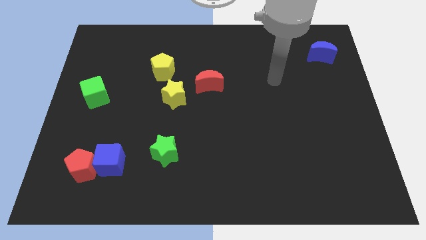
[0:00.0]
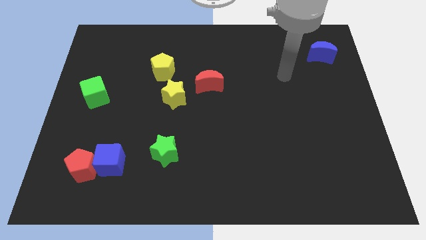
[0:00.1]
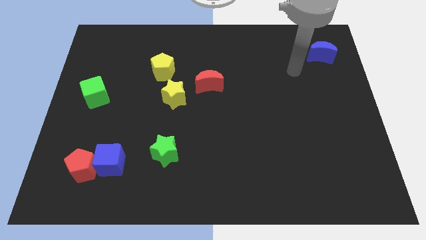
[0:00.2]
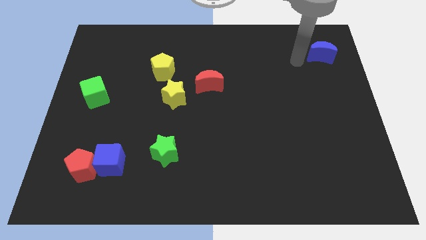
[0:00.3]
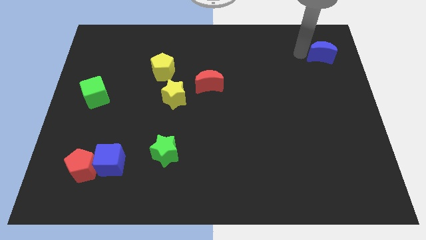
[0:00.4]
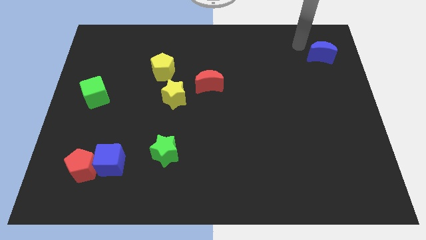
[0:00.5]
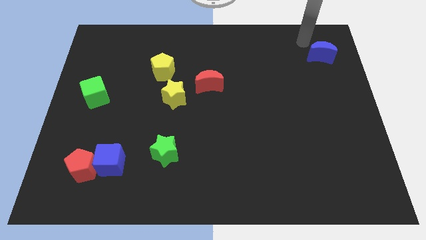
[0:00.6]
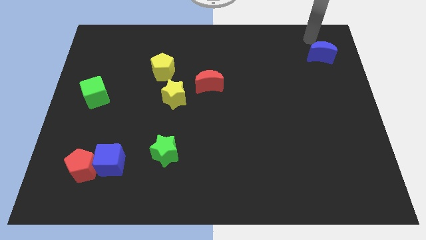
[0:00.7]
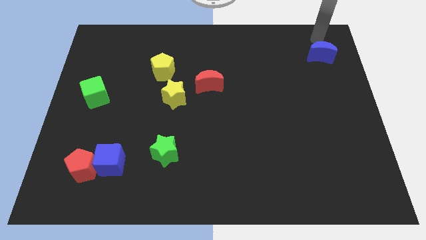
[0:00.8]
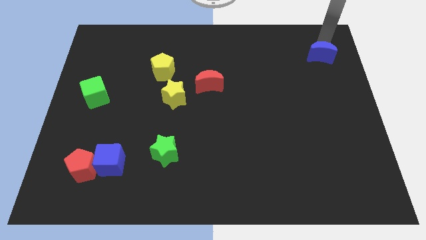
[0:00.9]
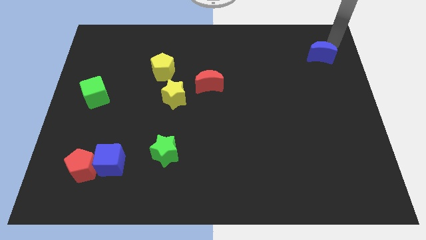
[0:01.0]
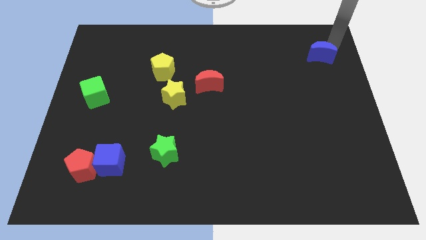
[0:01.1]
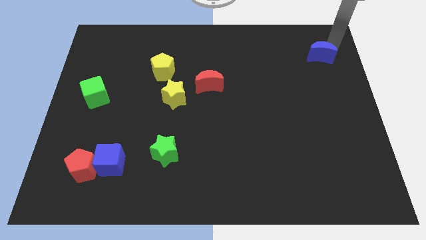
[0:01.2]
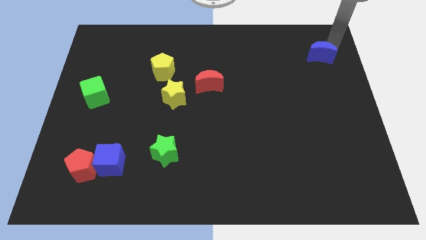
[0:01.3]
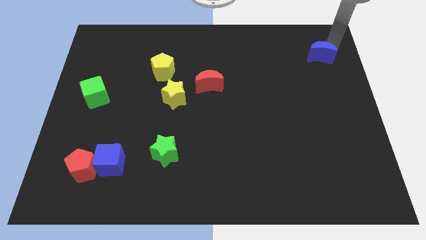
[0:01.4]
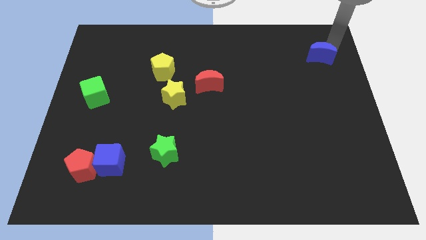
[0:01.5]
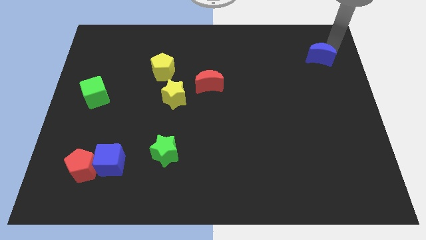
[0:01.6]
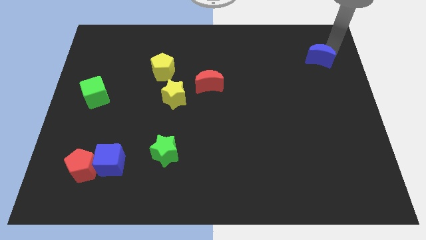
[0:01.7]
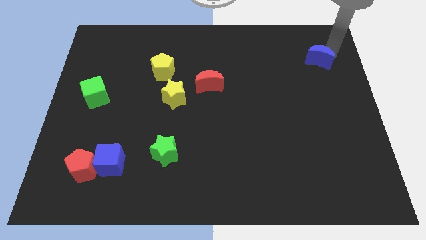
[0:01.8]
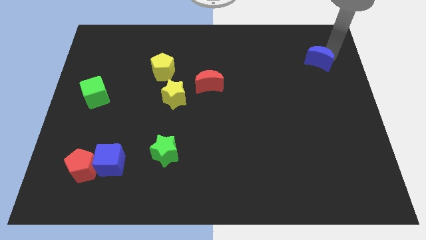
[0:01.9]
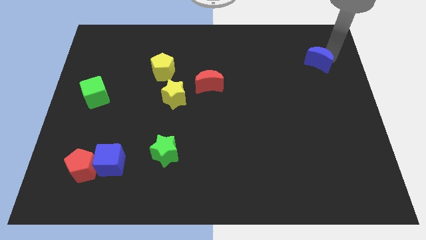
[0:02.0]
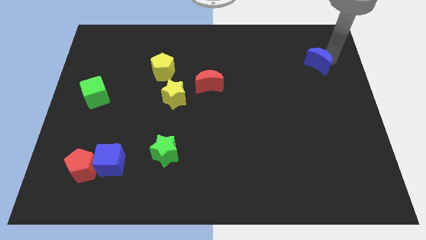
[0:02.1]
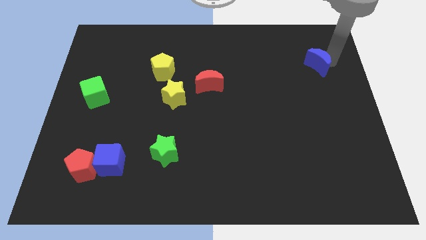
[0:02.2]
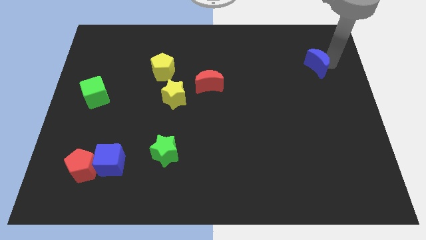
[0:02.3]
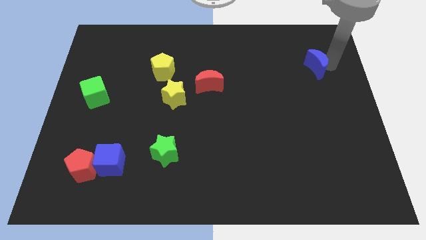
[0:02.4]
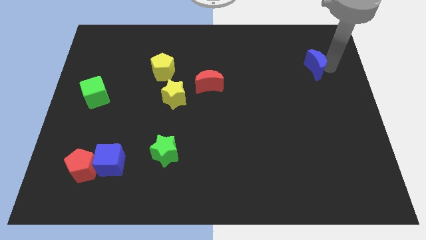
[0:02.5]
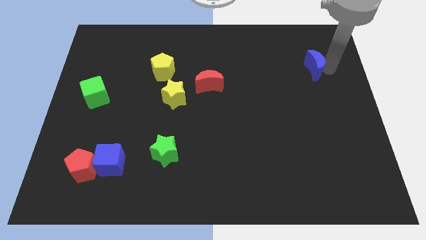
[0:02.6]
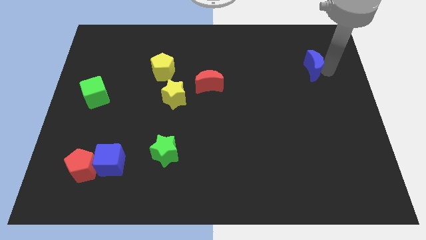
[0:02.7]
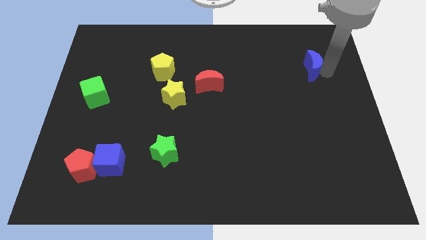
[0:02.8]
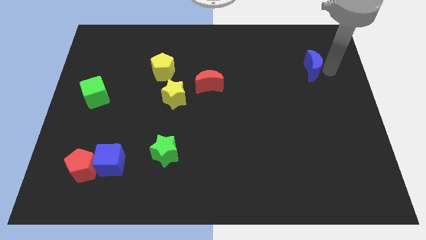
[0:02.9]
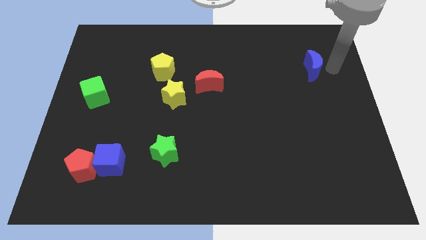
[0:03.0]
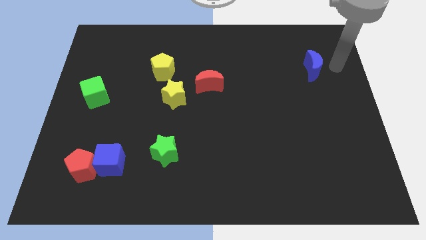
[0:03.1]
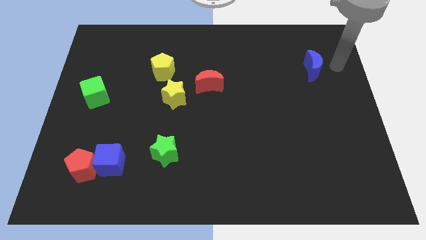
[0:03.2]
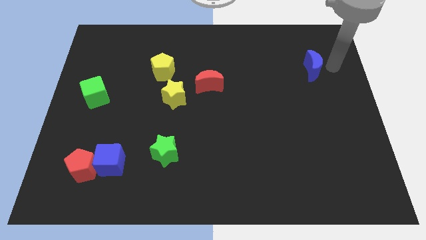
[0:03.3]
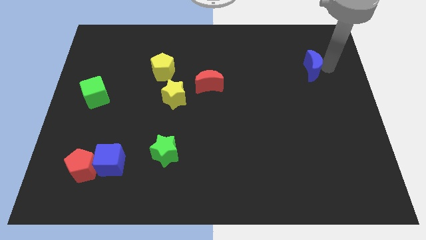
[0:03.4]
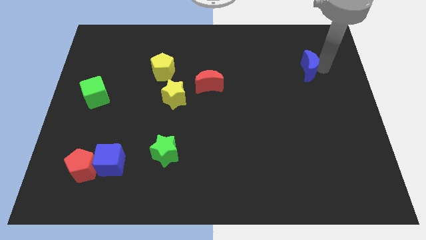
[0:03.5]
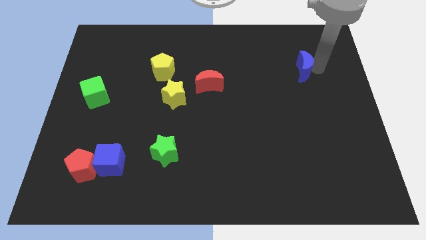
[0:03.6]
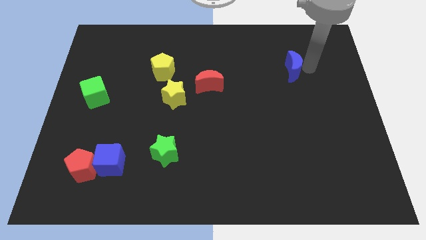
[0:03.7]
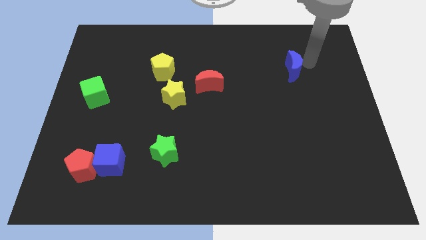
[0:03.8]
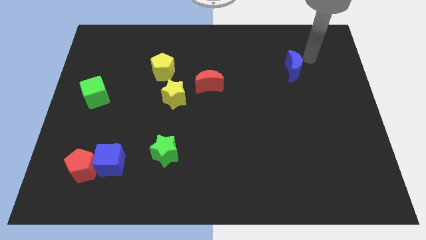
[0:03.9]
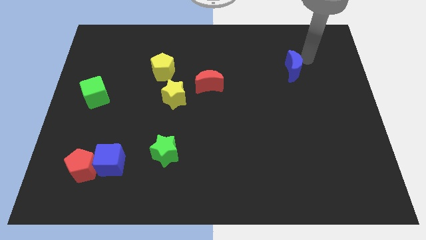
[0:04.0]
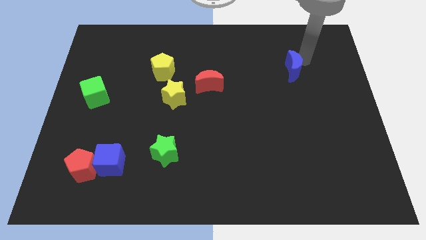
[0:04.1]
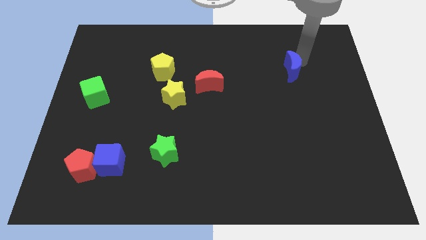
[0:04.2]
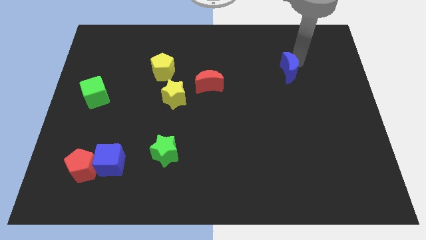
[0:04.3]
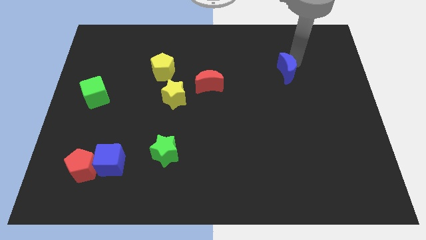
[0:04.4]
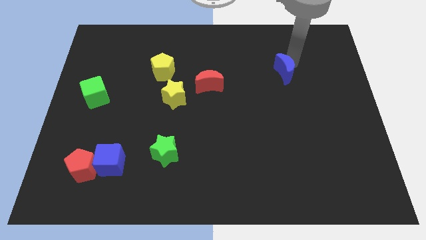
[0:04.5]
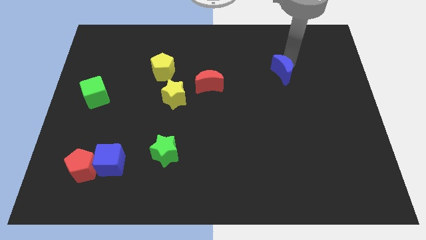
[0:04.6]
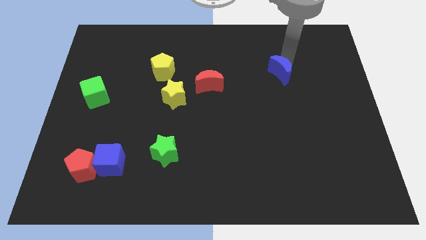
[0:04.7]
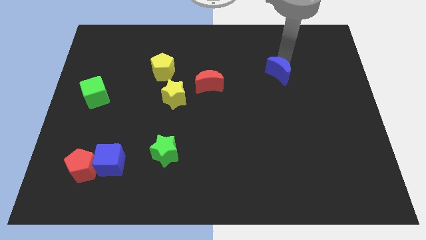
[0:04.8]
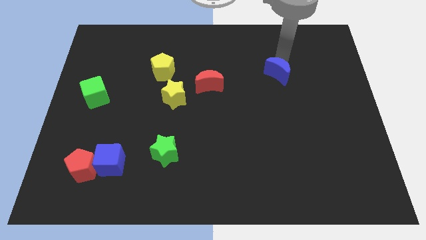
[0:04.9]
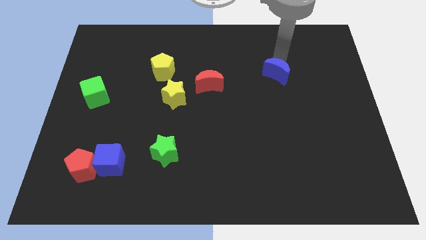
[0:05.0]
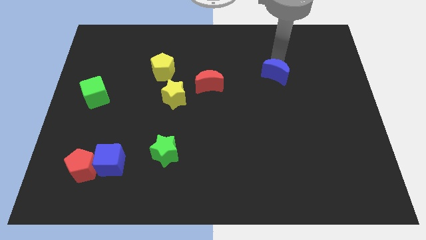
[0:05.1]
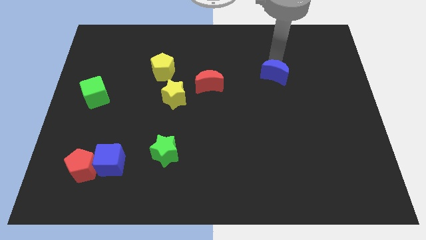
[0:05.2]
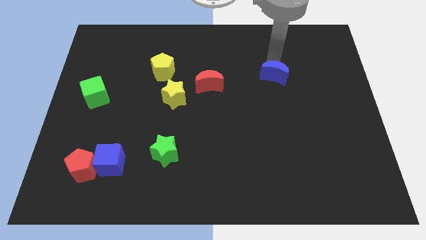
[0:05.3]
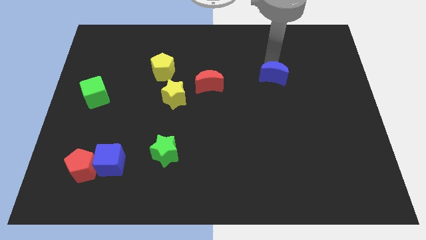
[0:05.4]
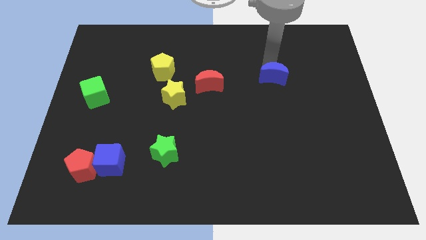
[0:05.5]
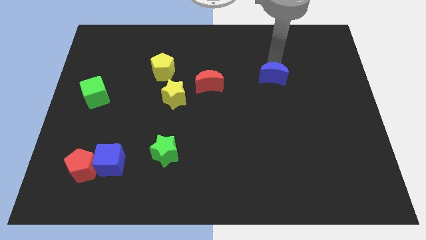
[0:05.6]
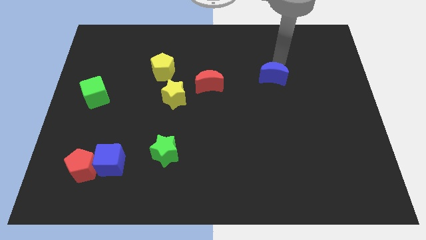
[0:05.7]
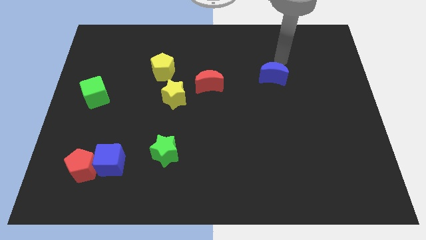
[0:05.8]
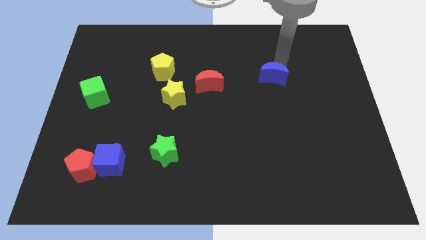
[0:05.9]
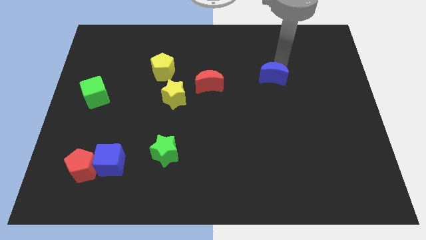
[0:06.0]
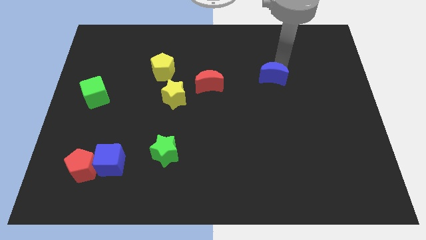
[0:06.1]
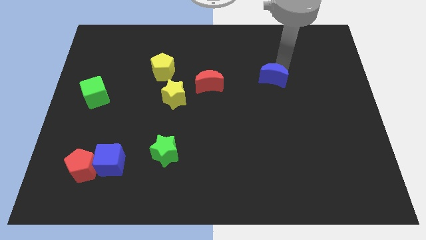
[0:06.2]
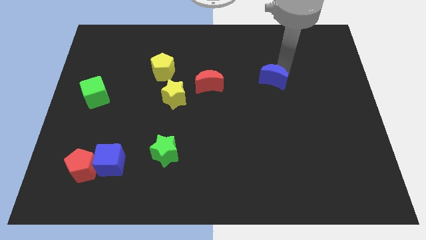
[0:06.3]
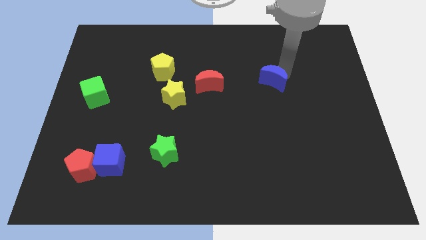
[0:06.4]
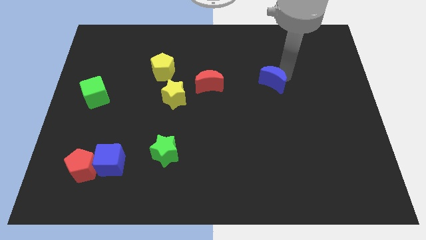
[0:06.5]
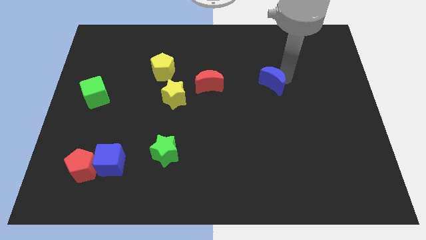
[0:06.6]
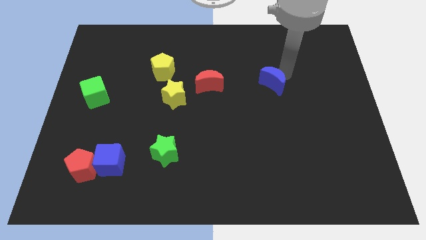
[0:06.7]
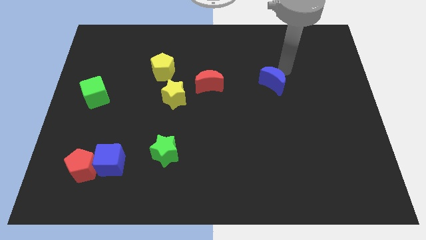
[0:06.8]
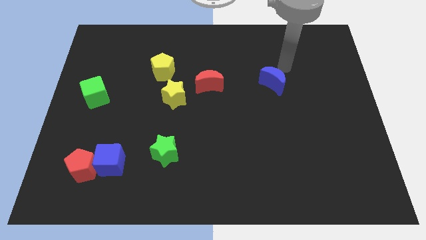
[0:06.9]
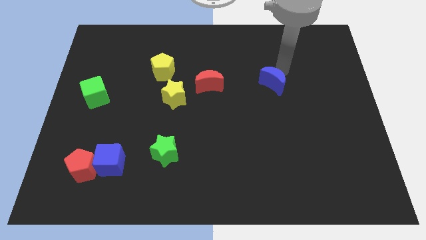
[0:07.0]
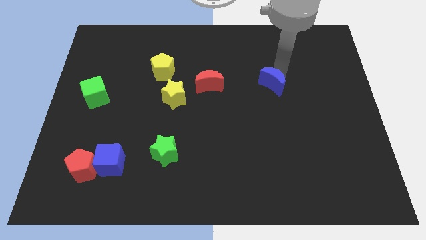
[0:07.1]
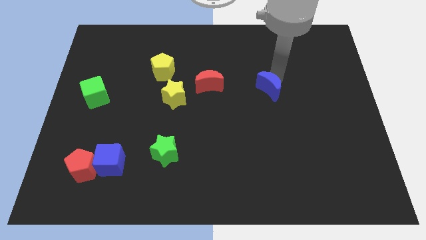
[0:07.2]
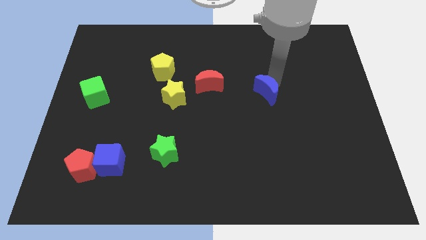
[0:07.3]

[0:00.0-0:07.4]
slide the blue moon down and left

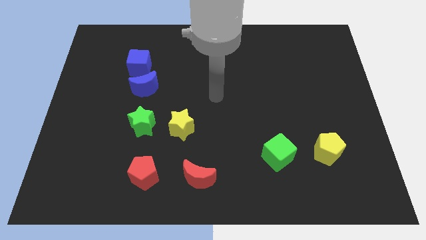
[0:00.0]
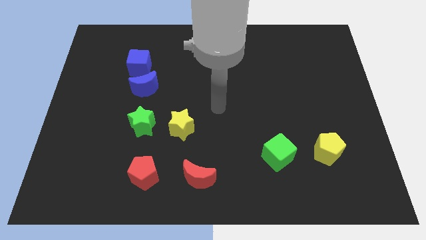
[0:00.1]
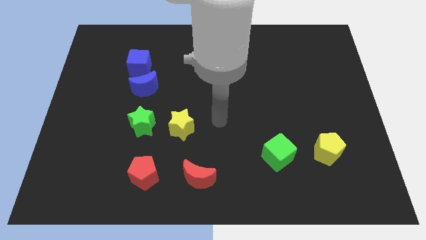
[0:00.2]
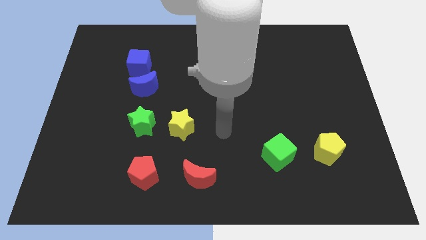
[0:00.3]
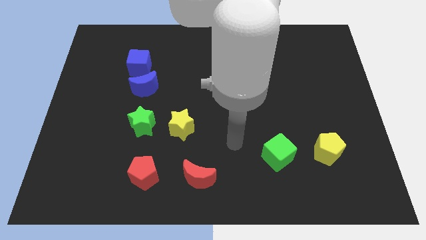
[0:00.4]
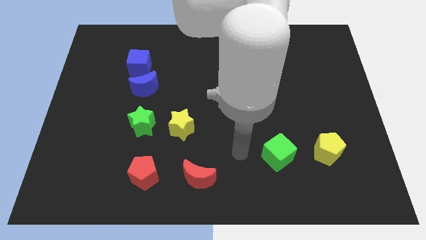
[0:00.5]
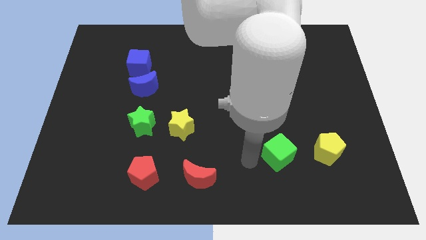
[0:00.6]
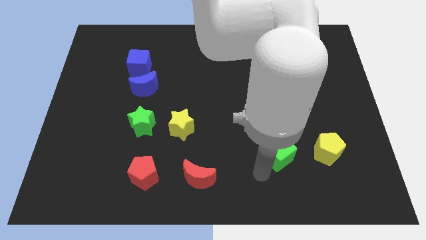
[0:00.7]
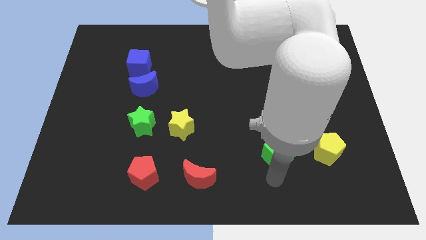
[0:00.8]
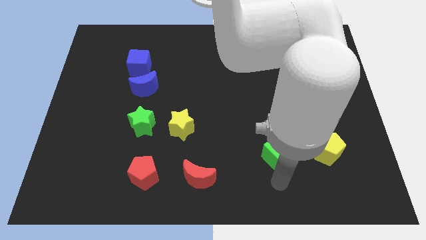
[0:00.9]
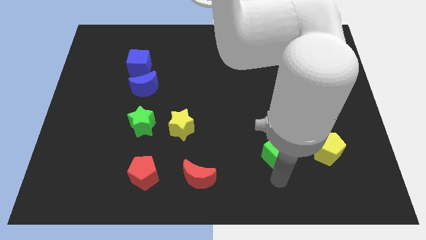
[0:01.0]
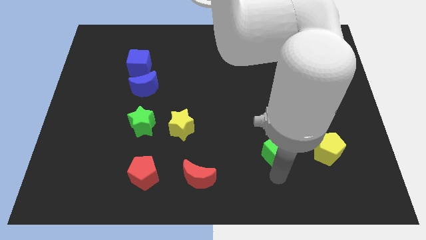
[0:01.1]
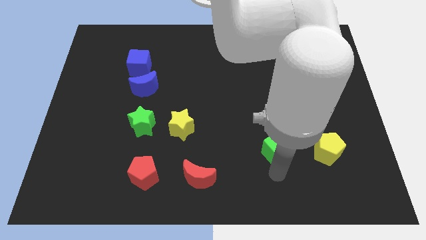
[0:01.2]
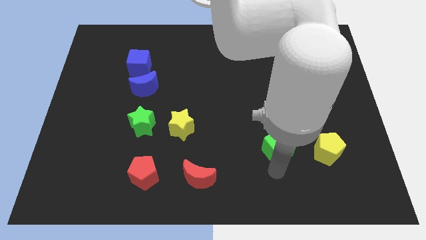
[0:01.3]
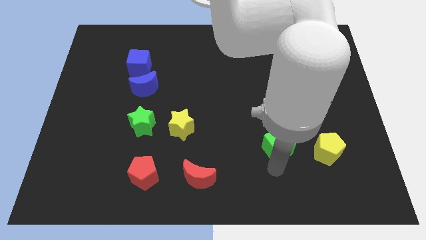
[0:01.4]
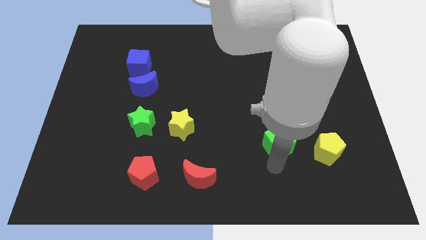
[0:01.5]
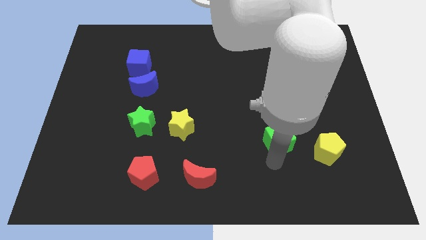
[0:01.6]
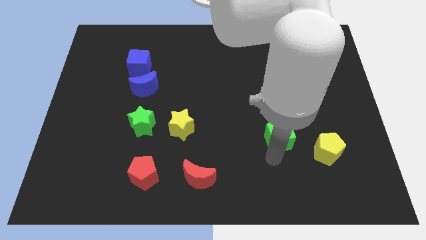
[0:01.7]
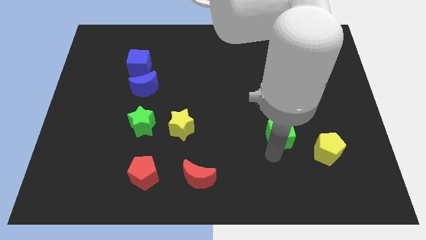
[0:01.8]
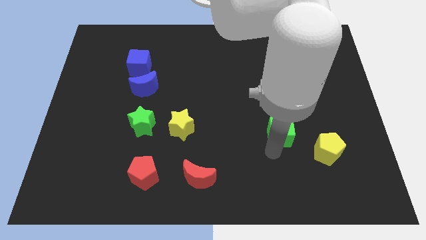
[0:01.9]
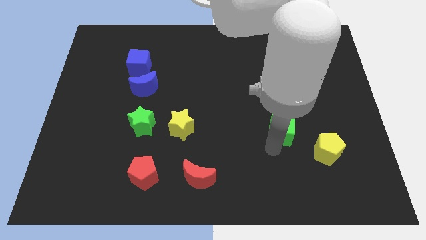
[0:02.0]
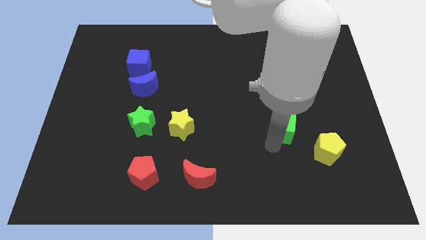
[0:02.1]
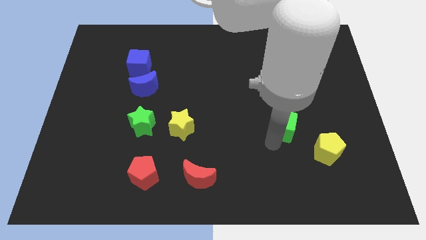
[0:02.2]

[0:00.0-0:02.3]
slightly slide the green cube up
